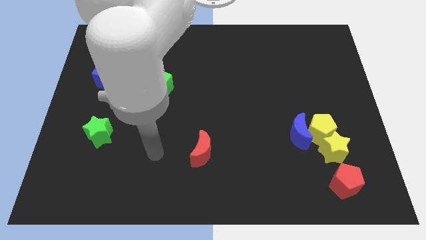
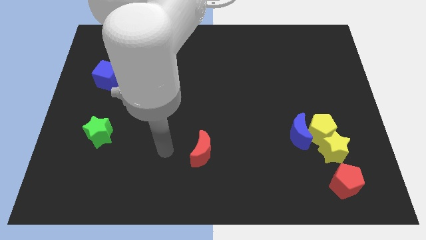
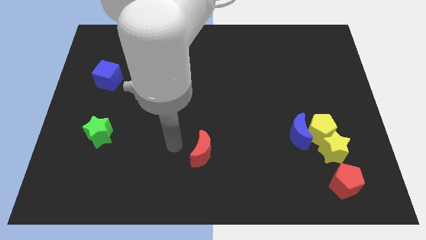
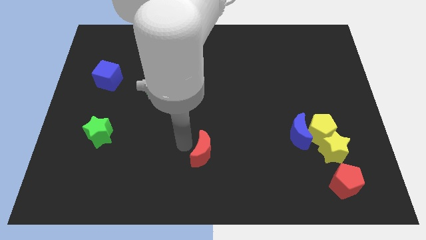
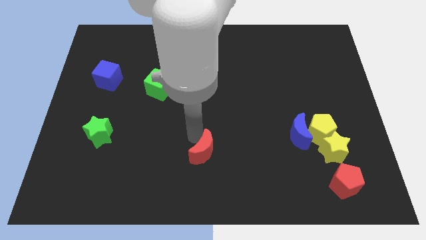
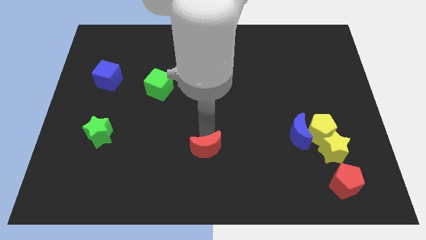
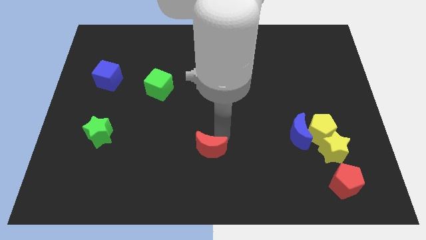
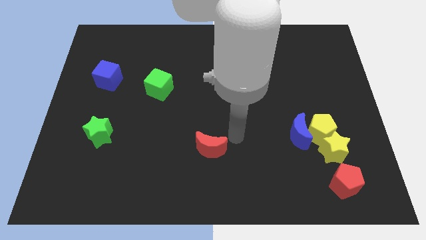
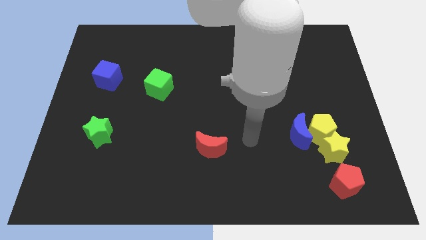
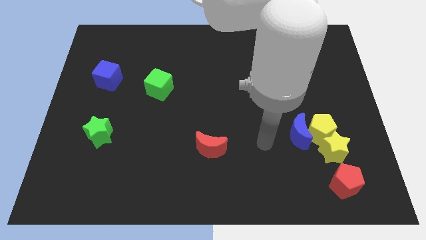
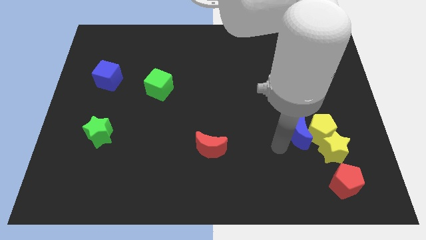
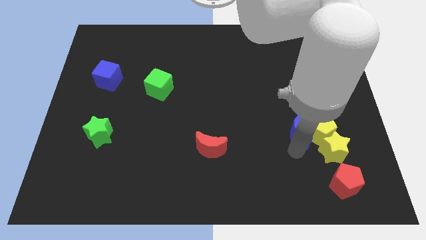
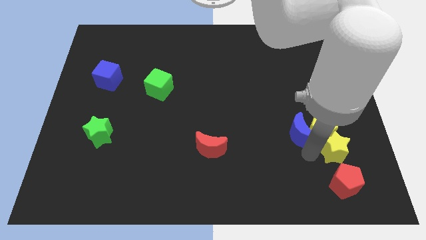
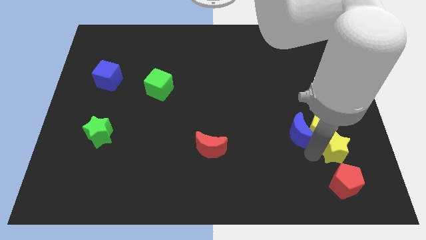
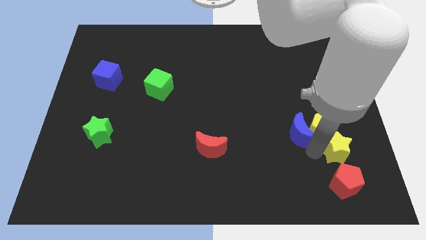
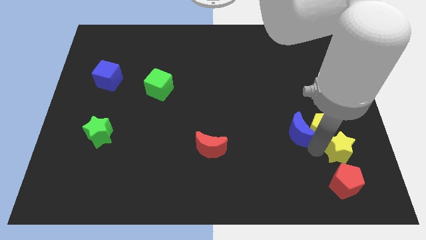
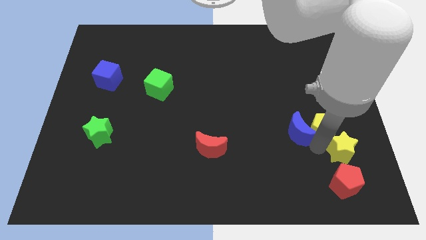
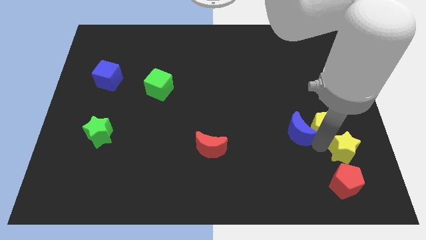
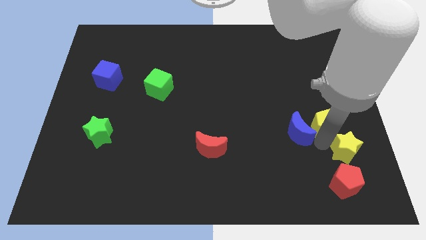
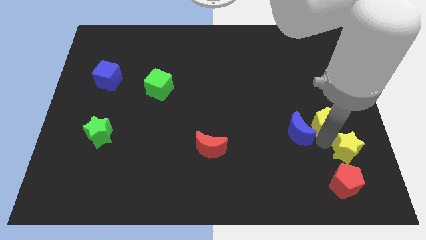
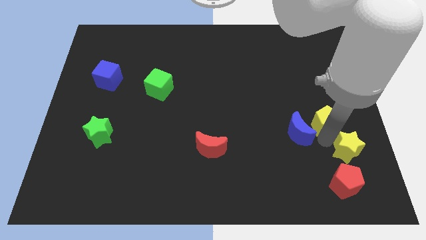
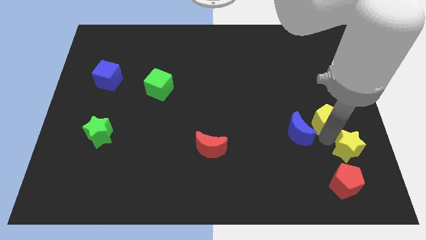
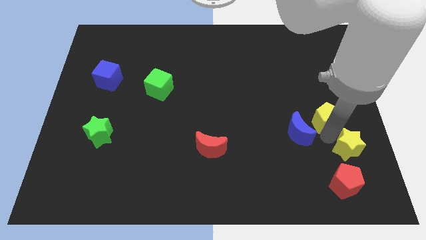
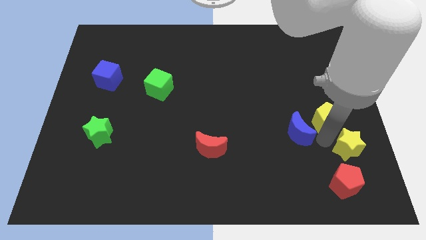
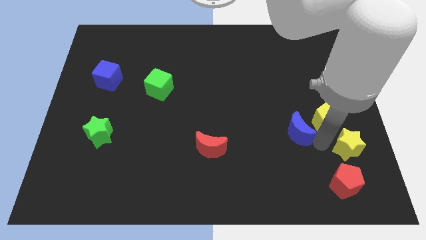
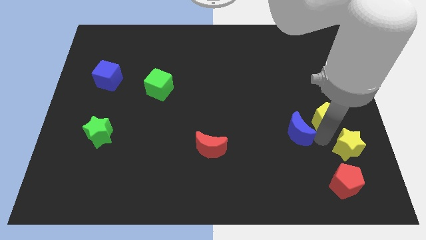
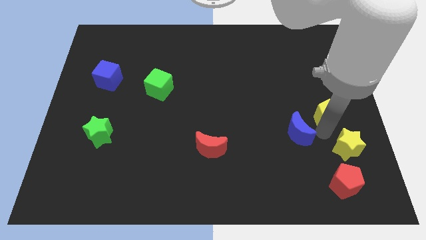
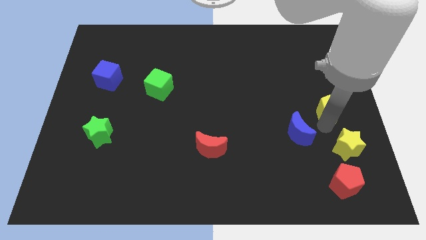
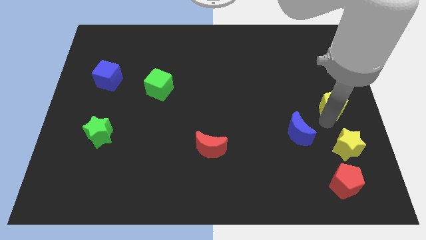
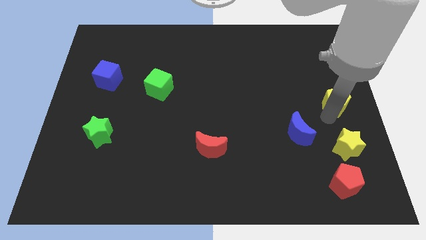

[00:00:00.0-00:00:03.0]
move the yellow pentagon away from the yellow star and blue moon

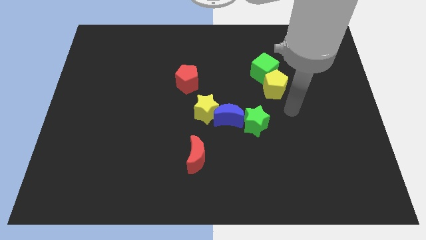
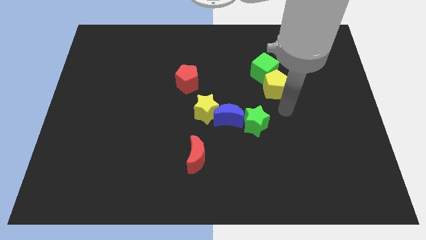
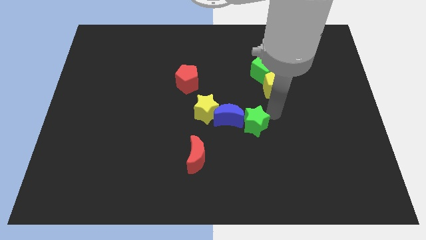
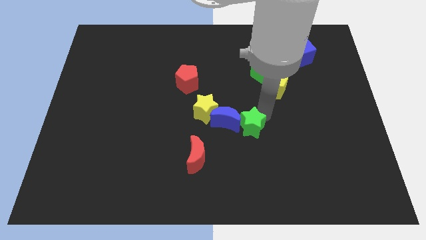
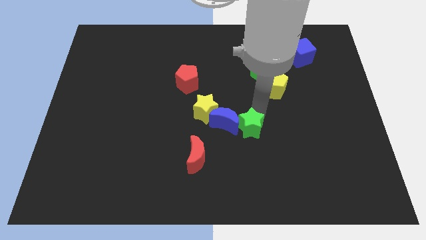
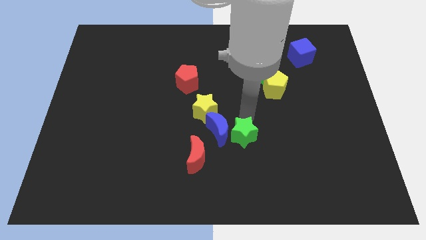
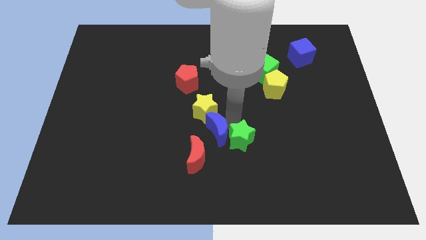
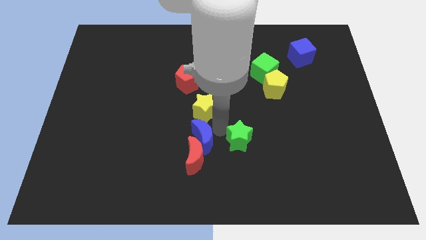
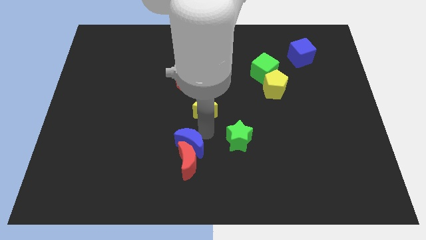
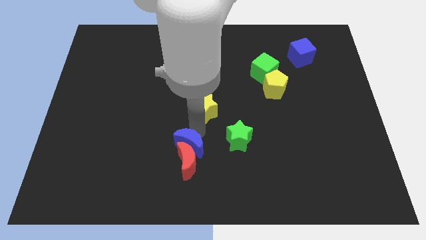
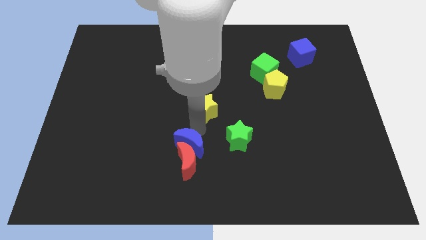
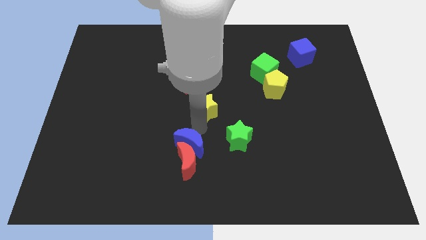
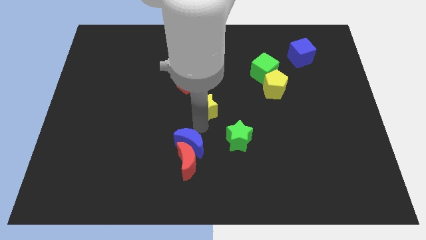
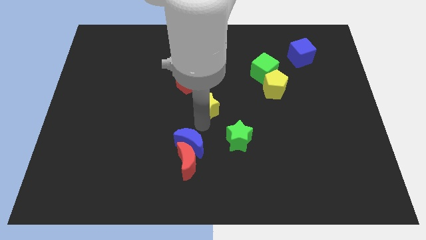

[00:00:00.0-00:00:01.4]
pull the yellow star apart from the blue moon

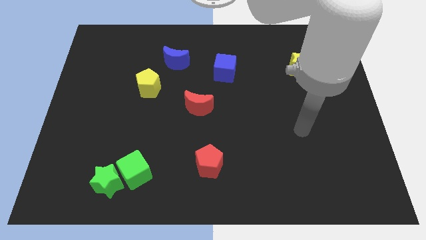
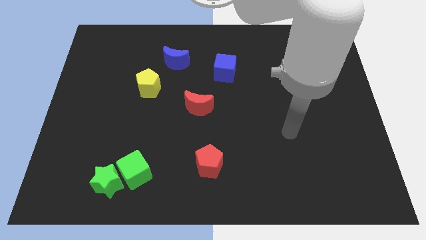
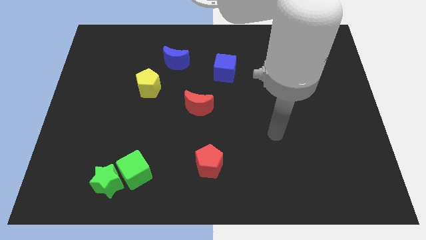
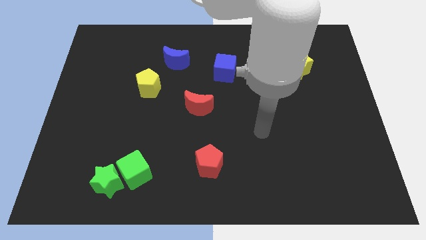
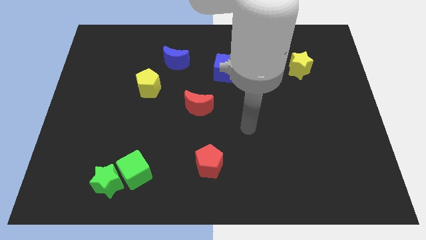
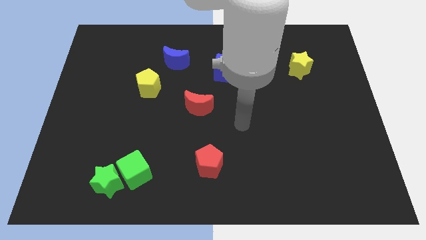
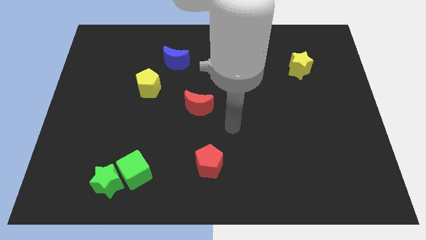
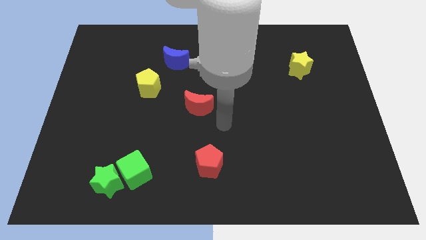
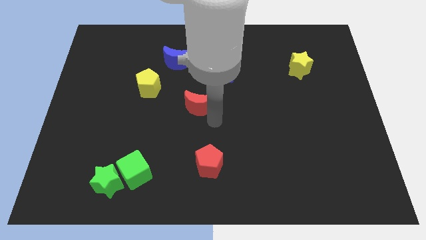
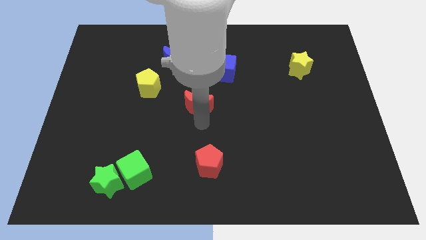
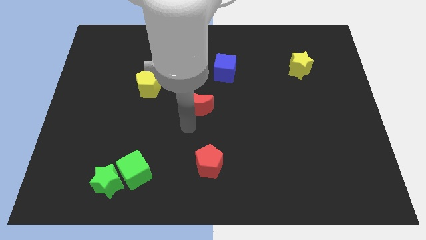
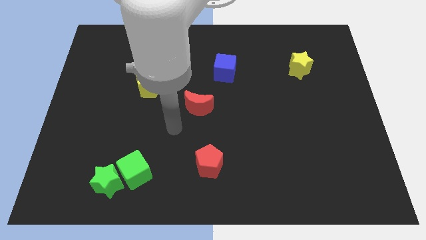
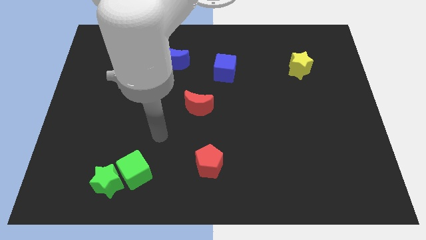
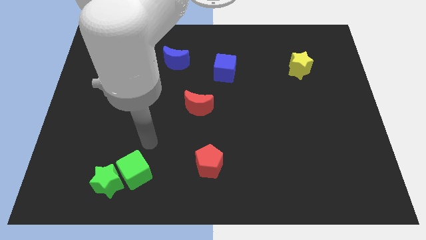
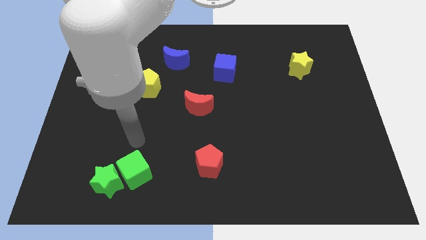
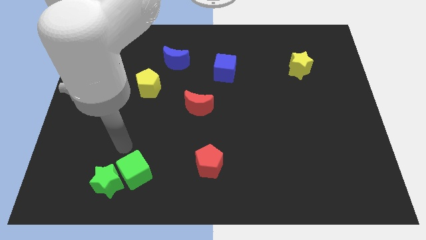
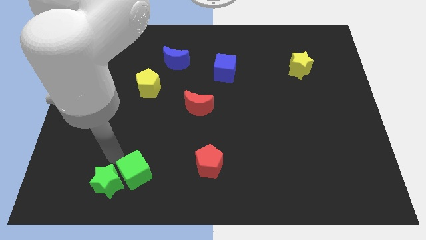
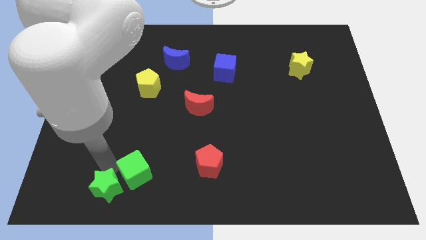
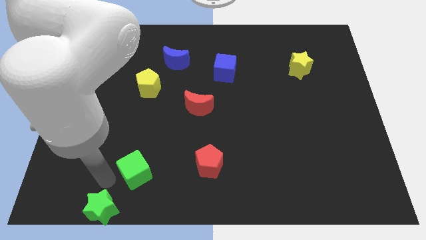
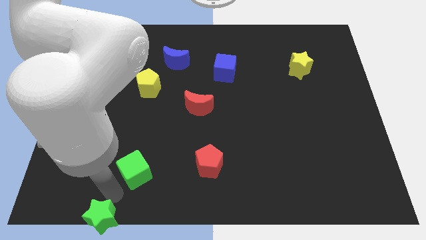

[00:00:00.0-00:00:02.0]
pull the green cube apart from the green star

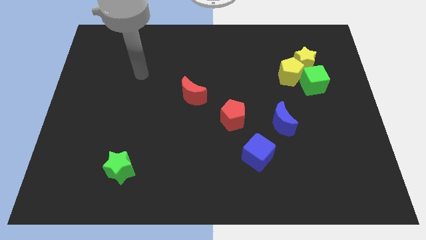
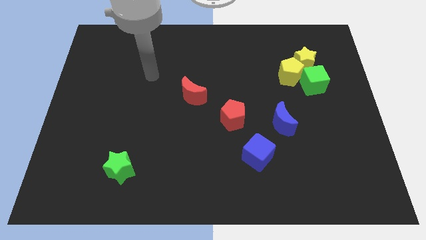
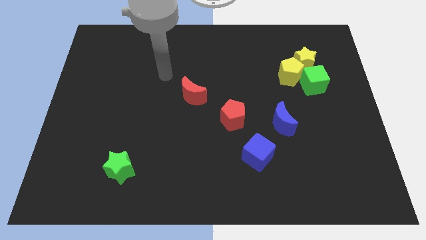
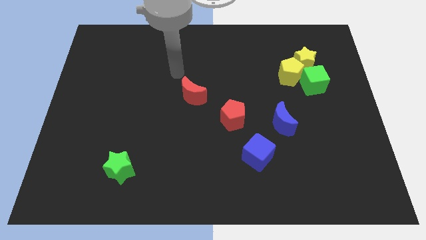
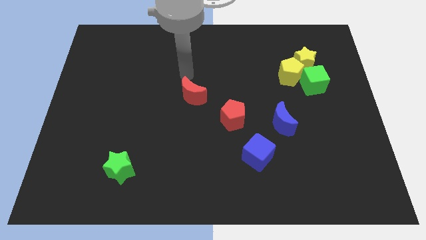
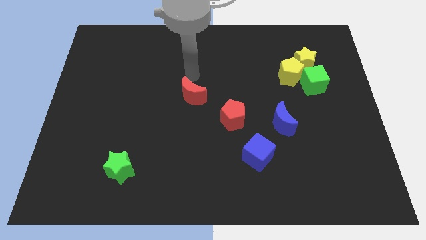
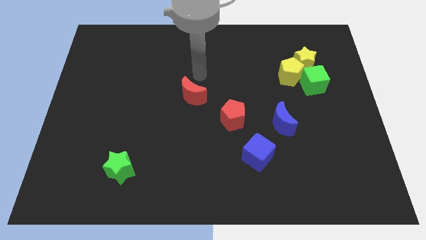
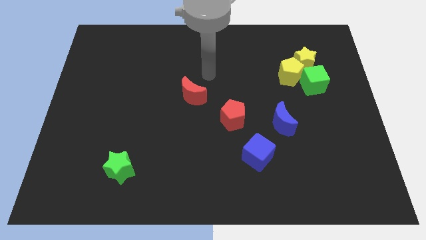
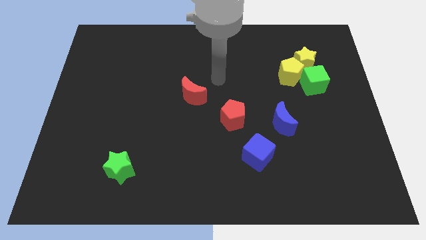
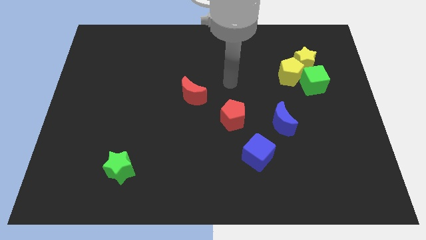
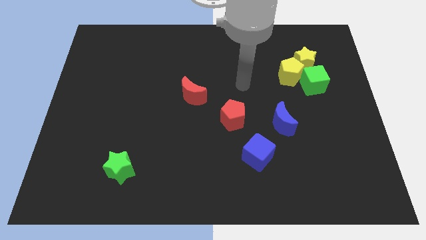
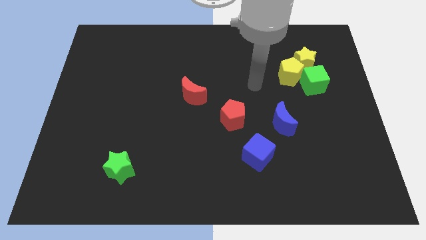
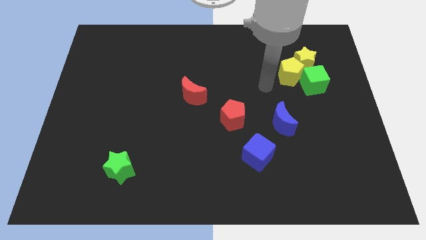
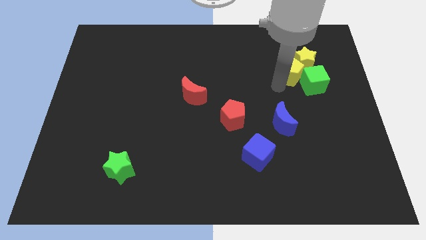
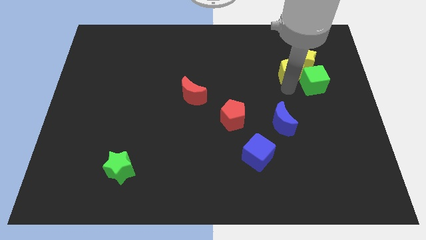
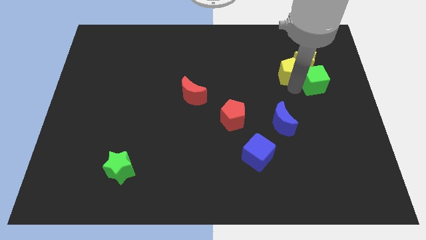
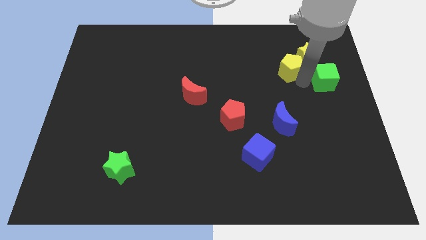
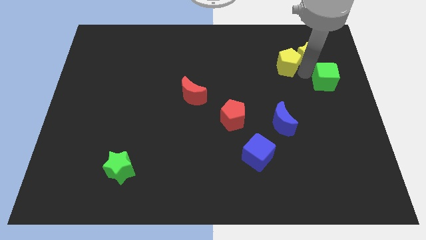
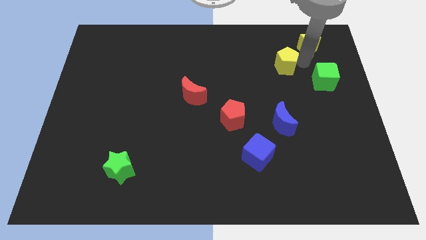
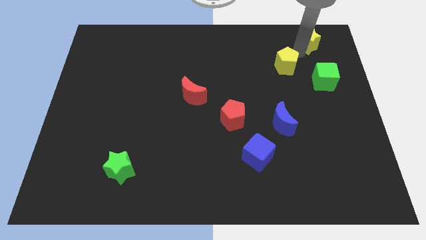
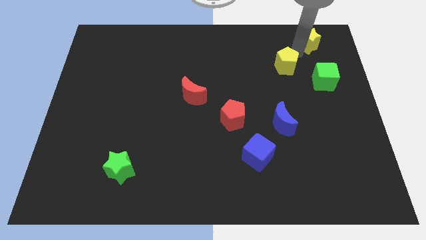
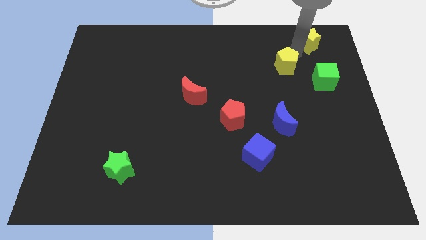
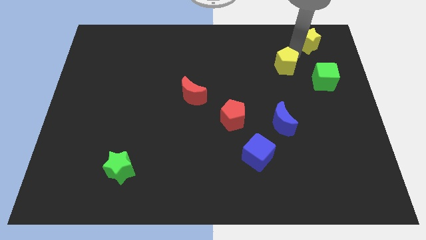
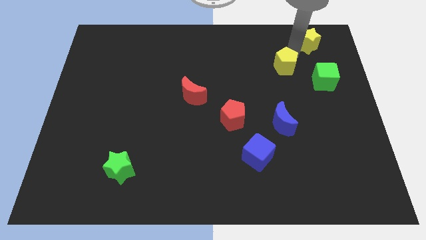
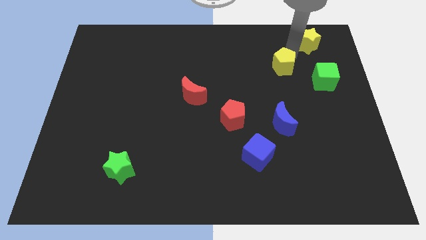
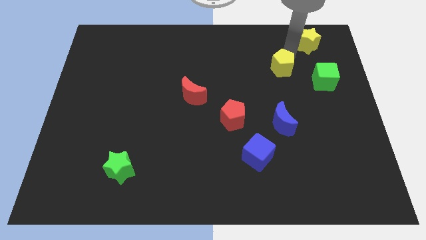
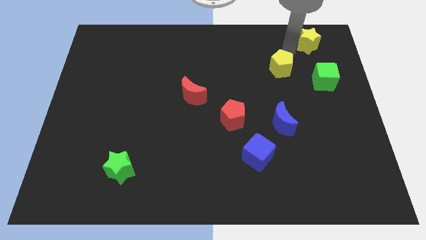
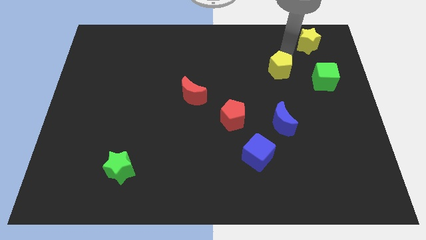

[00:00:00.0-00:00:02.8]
separate the yellow pentagon from the yellow star and green cube

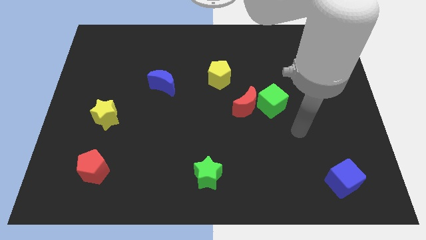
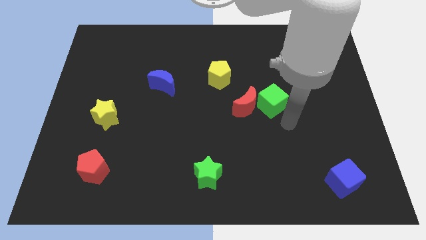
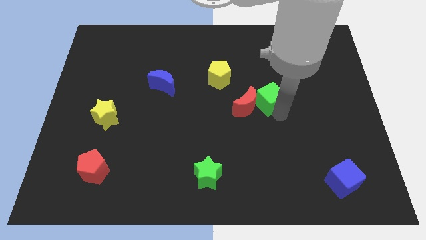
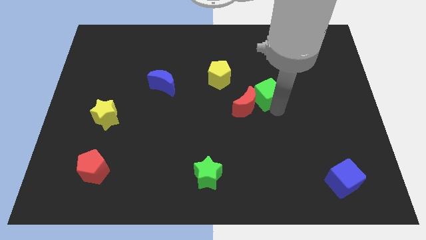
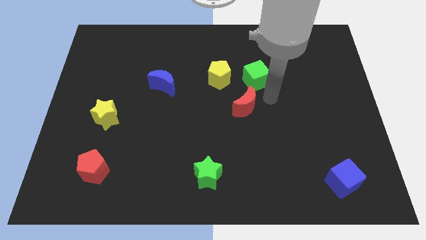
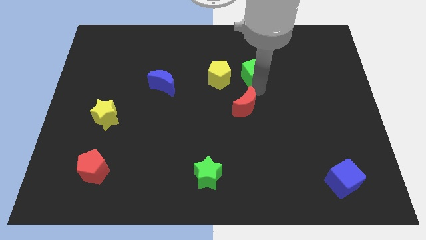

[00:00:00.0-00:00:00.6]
pull the red moon apart from the green cube
